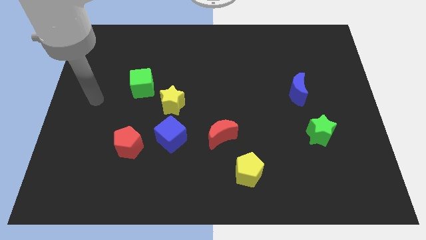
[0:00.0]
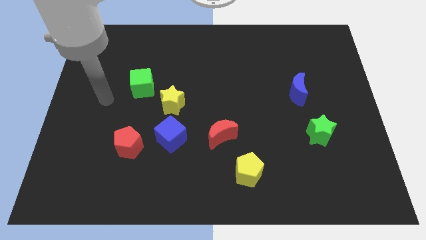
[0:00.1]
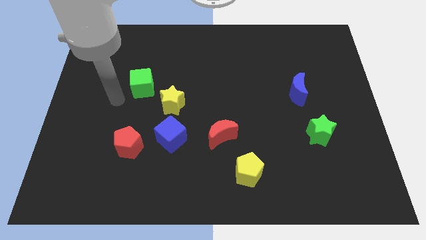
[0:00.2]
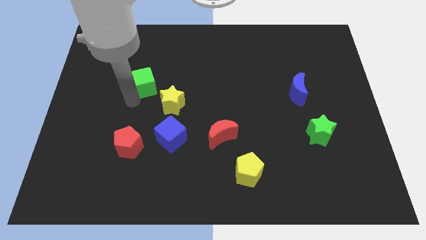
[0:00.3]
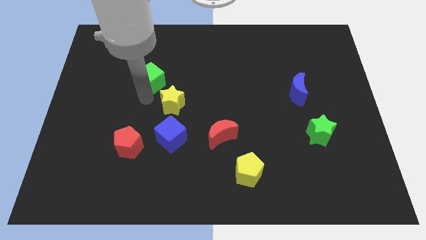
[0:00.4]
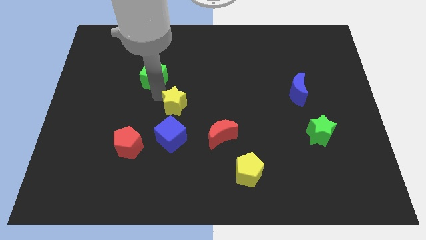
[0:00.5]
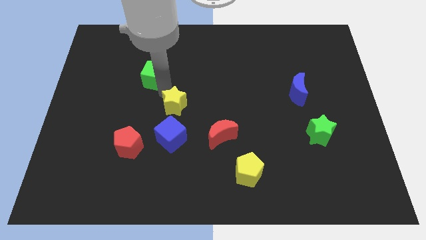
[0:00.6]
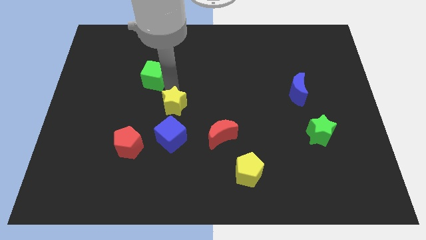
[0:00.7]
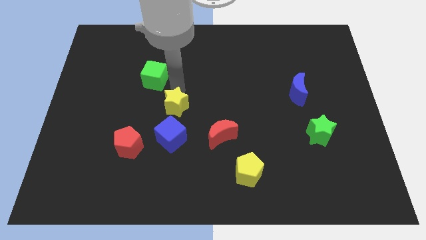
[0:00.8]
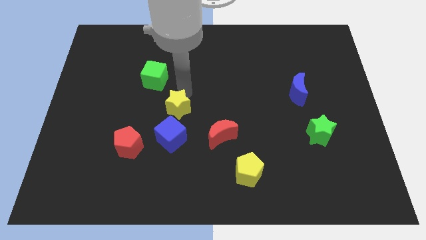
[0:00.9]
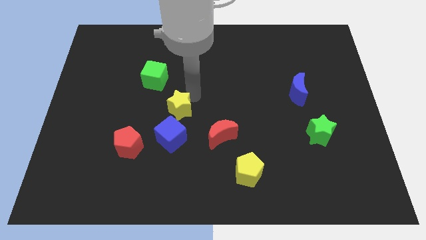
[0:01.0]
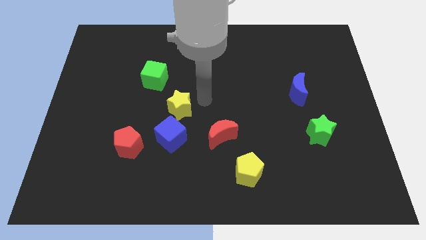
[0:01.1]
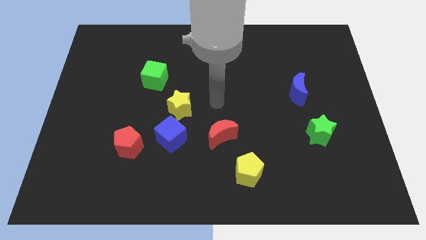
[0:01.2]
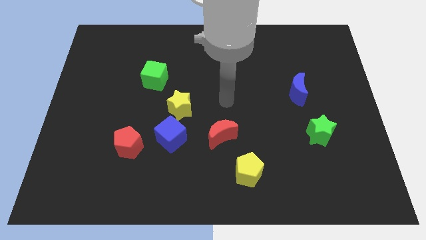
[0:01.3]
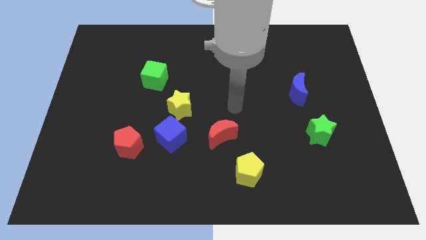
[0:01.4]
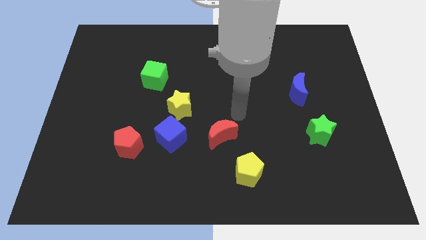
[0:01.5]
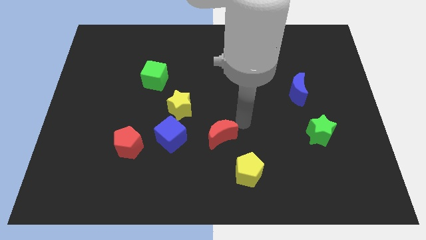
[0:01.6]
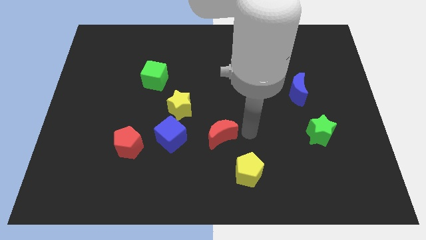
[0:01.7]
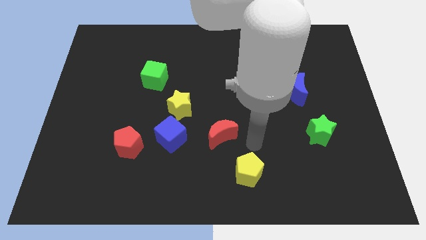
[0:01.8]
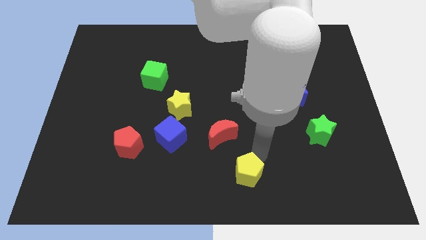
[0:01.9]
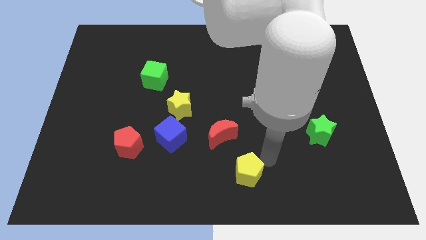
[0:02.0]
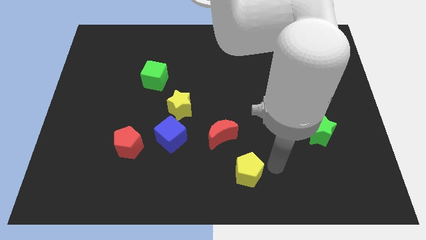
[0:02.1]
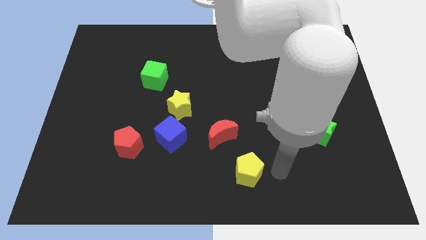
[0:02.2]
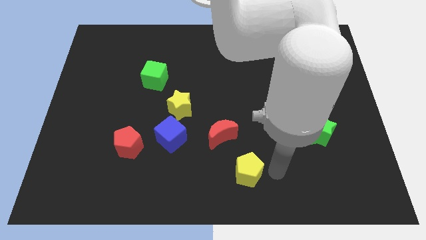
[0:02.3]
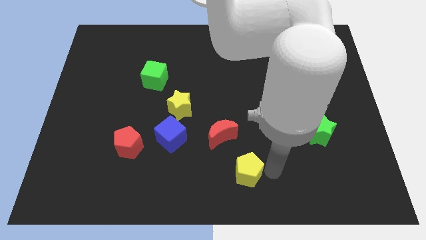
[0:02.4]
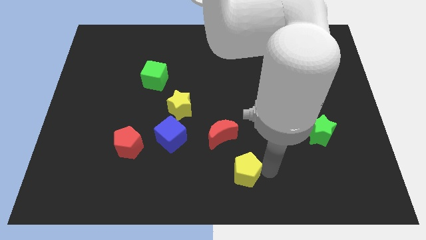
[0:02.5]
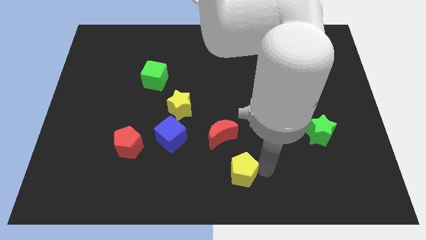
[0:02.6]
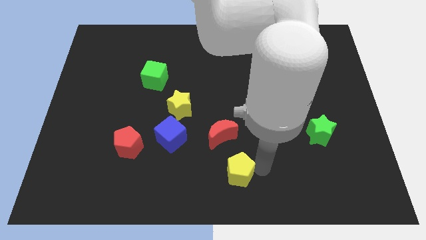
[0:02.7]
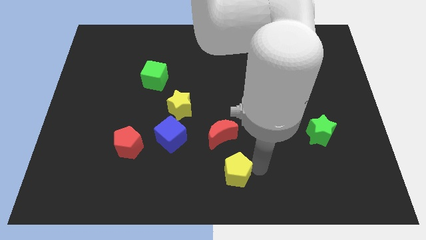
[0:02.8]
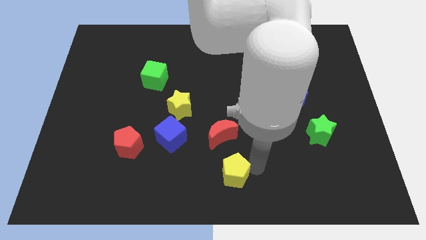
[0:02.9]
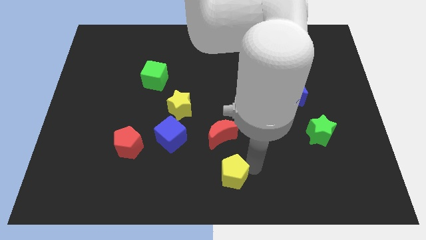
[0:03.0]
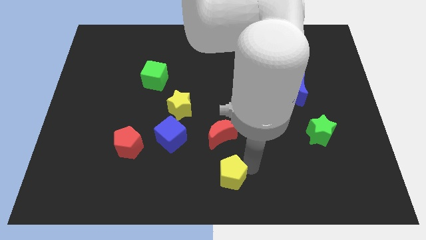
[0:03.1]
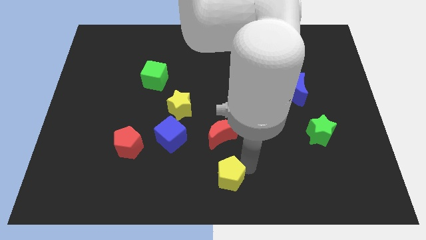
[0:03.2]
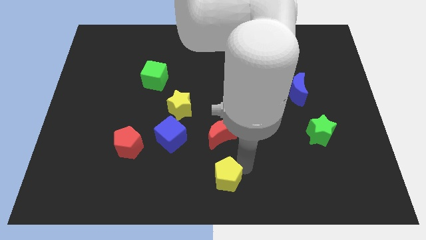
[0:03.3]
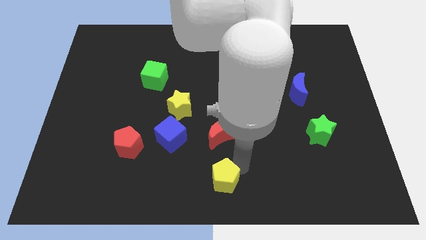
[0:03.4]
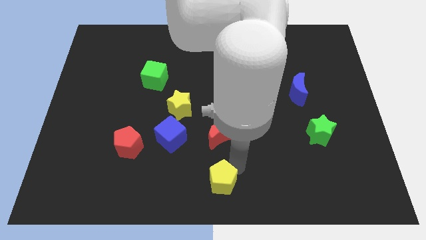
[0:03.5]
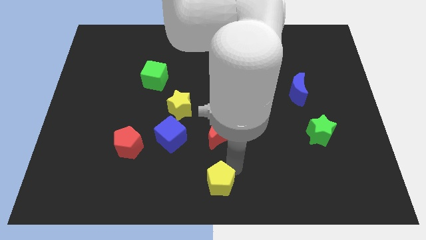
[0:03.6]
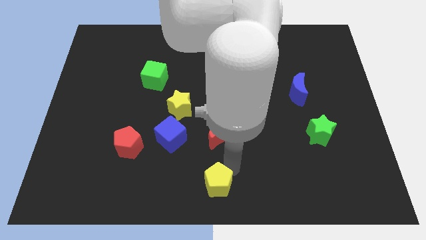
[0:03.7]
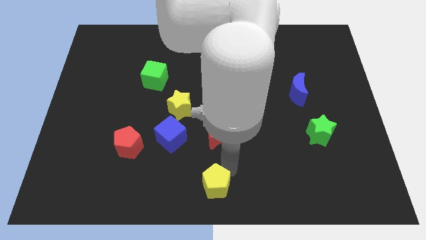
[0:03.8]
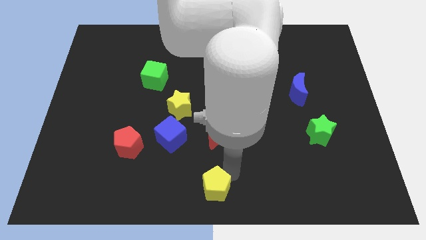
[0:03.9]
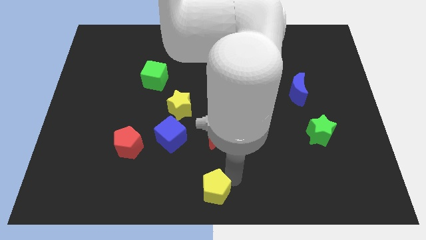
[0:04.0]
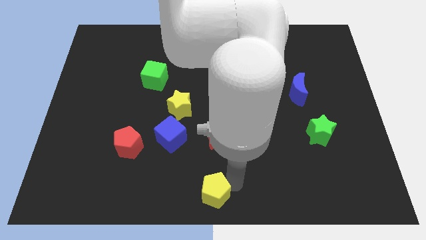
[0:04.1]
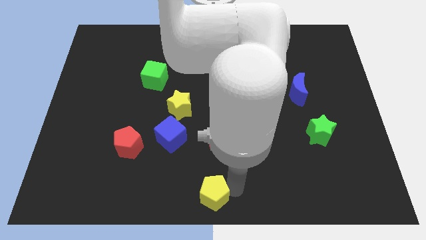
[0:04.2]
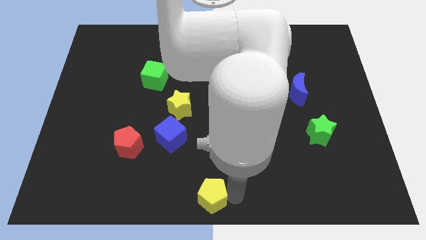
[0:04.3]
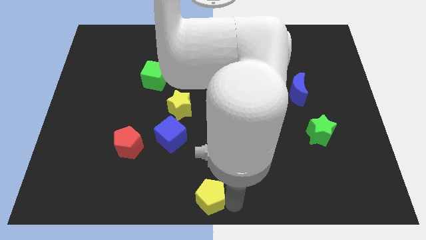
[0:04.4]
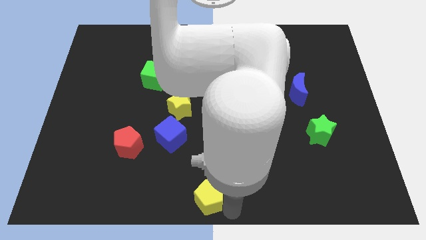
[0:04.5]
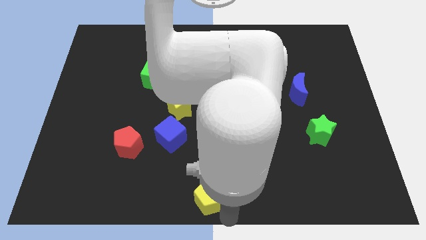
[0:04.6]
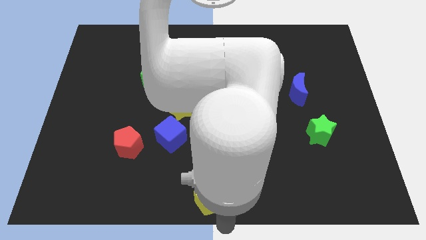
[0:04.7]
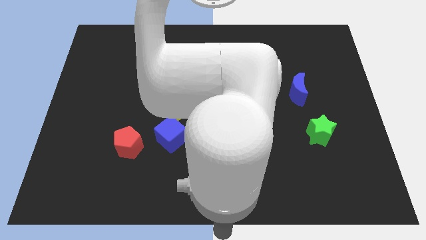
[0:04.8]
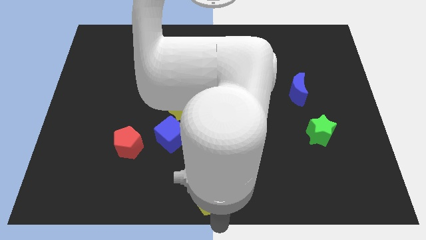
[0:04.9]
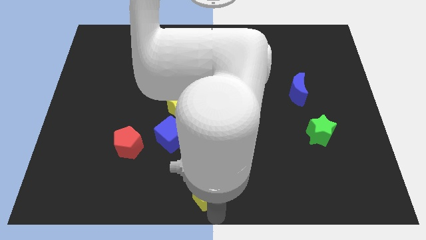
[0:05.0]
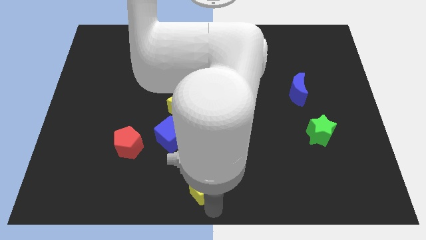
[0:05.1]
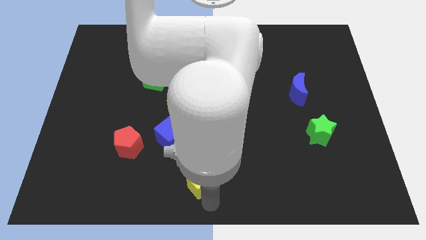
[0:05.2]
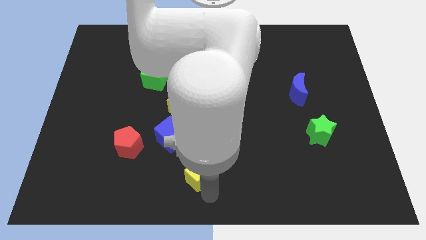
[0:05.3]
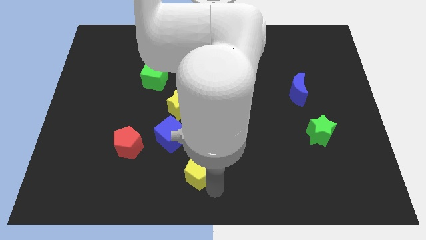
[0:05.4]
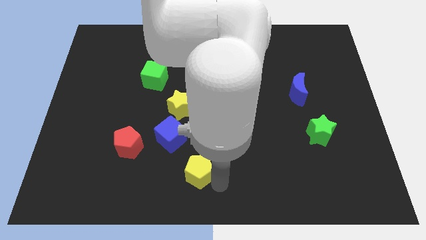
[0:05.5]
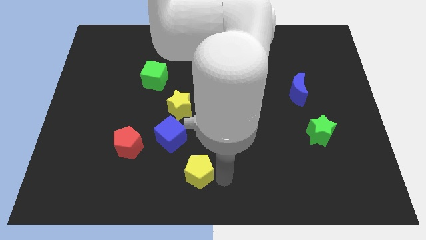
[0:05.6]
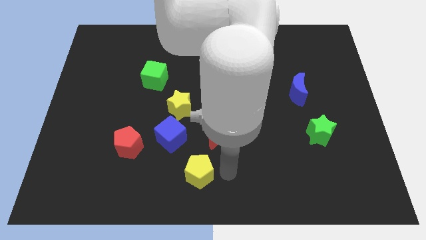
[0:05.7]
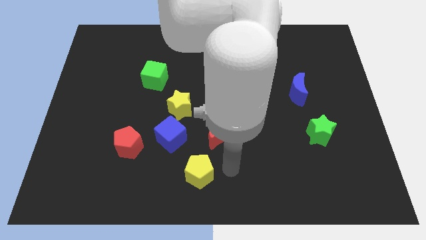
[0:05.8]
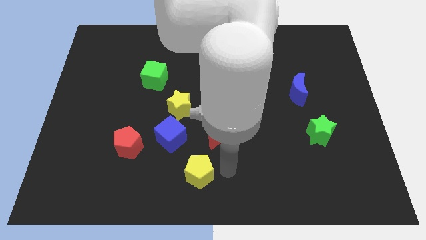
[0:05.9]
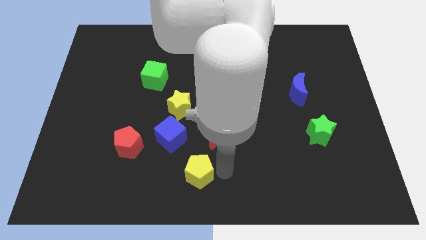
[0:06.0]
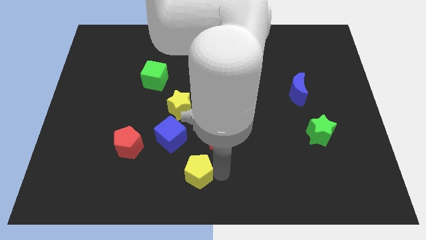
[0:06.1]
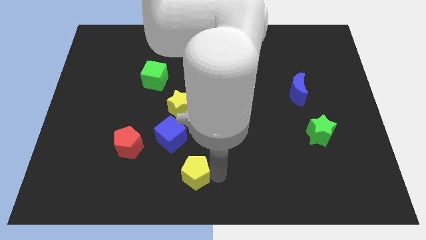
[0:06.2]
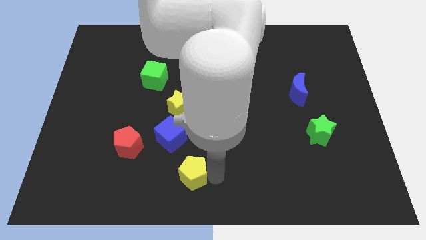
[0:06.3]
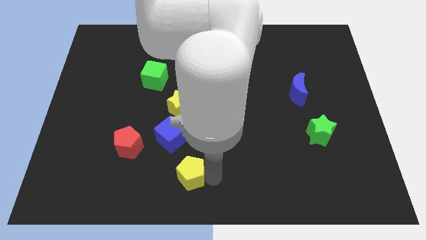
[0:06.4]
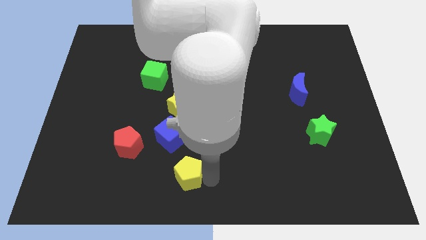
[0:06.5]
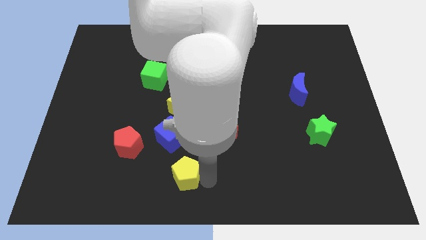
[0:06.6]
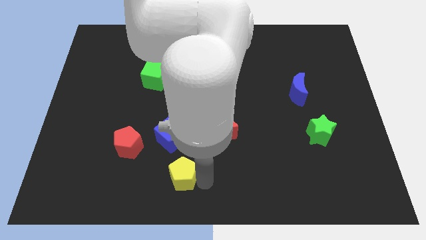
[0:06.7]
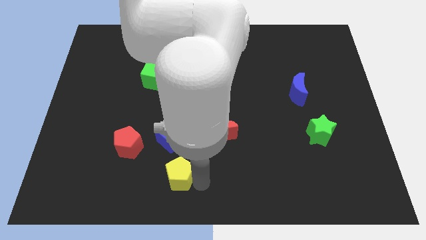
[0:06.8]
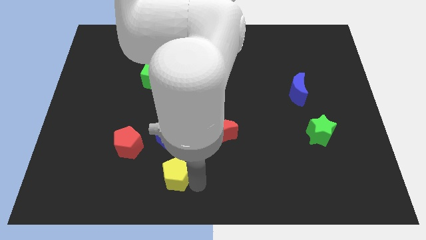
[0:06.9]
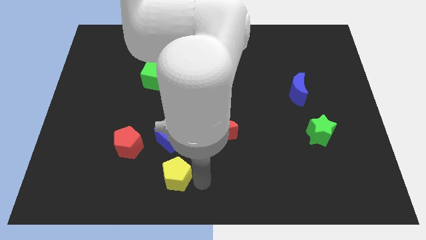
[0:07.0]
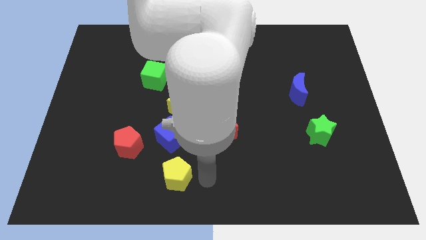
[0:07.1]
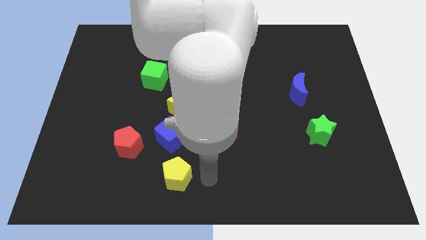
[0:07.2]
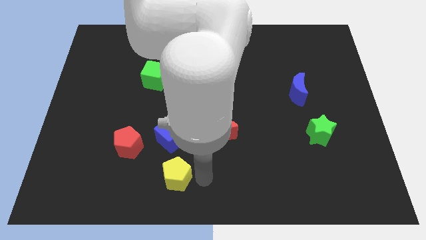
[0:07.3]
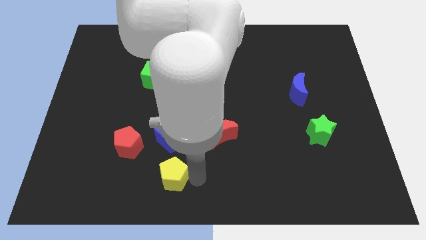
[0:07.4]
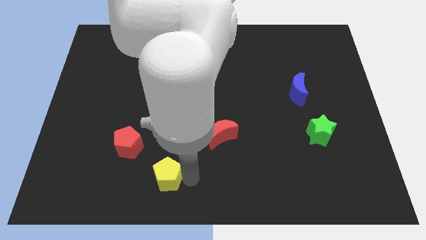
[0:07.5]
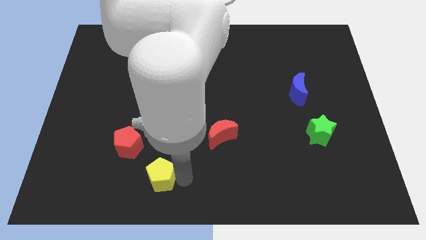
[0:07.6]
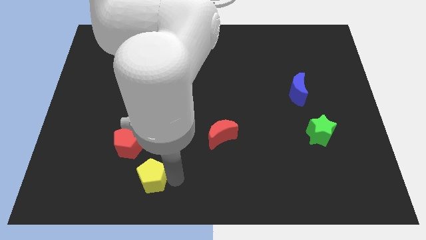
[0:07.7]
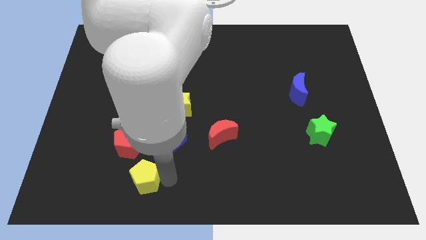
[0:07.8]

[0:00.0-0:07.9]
slide the yellow pentagon to the left
